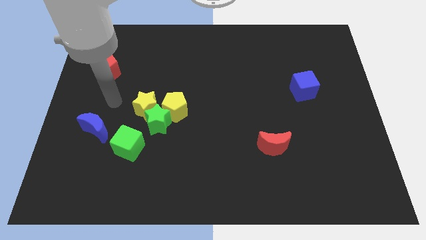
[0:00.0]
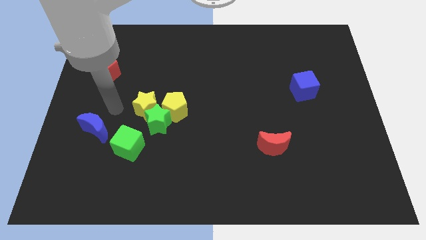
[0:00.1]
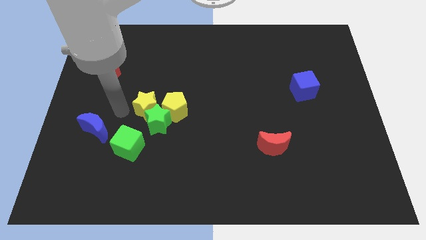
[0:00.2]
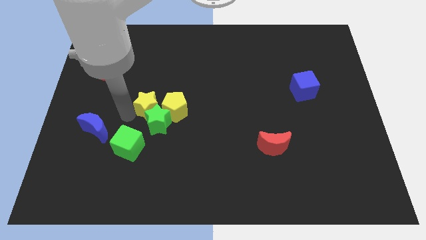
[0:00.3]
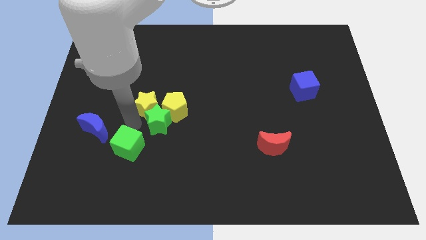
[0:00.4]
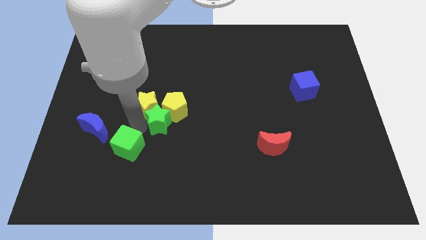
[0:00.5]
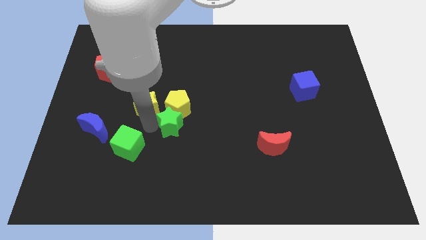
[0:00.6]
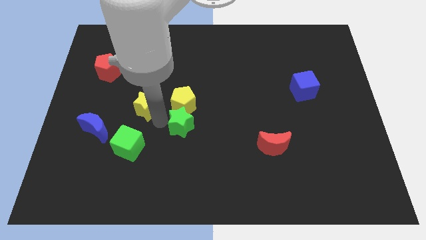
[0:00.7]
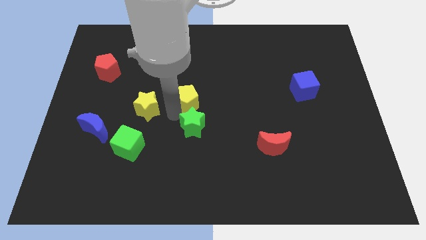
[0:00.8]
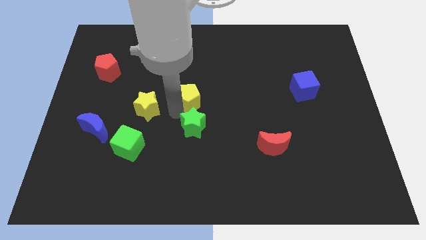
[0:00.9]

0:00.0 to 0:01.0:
pull the yellow star apart from the green star and yellow pentagon

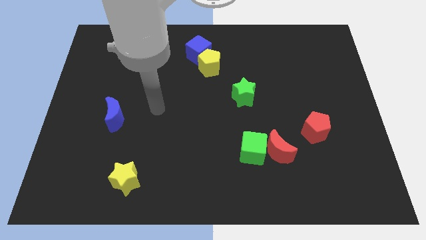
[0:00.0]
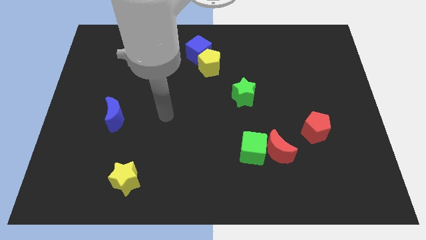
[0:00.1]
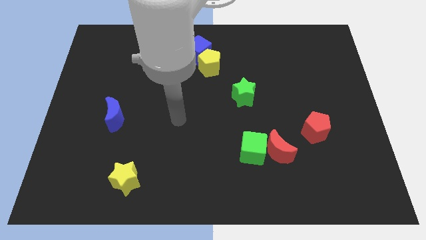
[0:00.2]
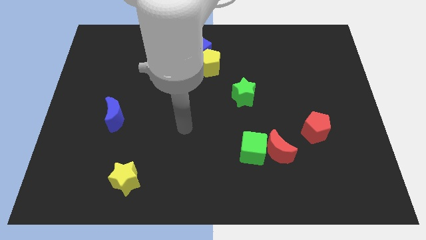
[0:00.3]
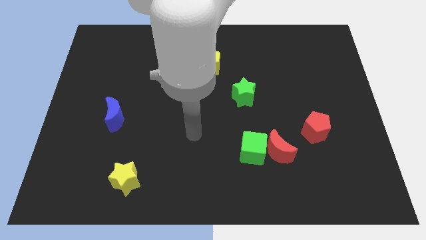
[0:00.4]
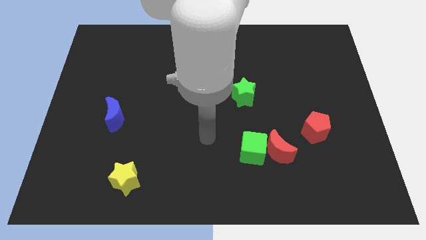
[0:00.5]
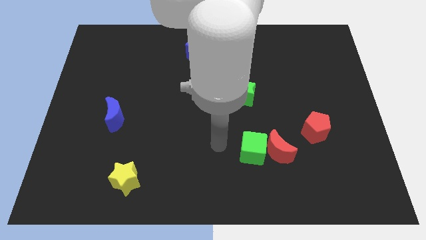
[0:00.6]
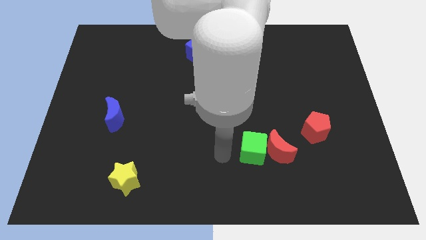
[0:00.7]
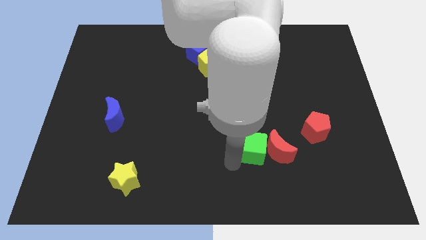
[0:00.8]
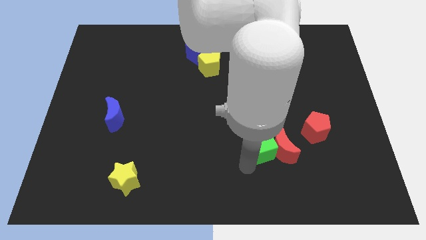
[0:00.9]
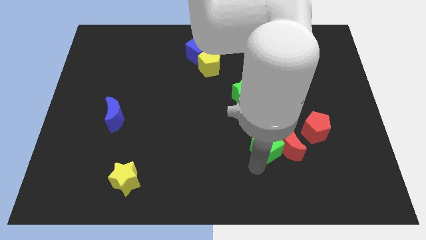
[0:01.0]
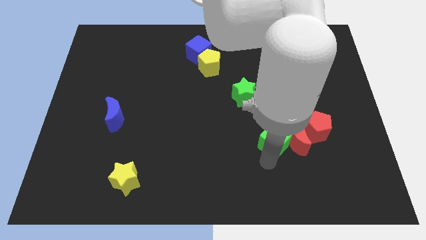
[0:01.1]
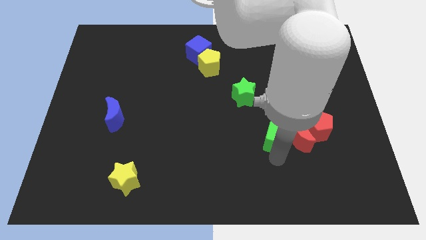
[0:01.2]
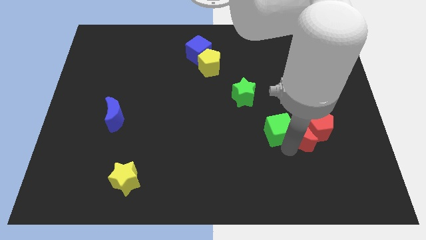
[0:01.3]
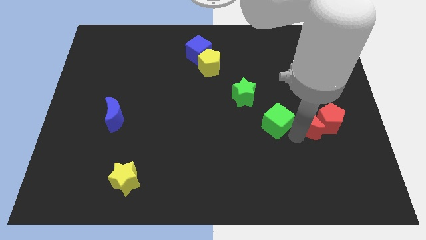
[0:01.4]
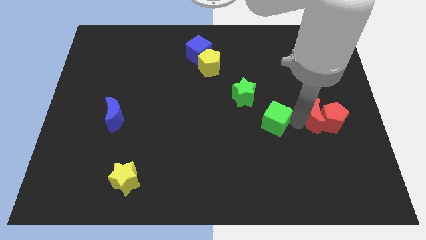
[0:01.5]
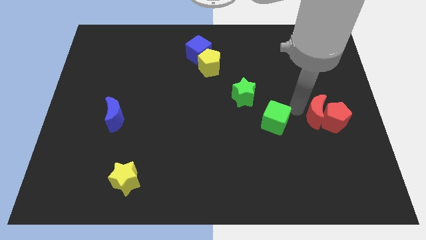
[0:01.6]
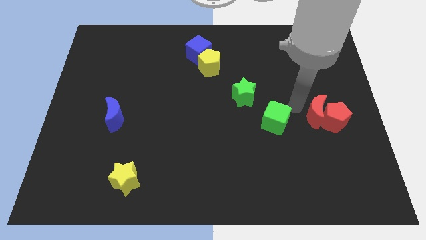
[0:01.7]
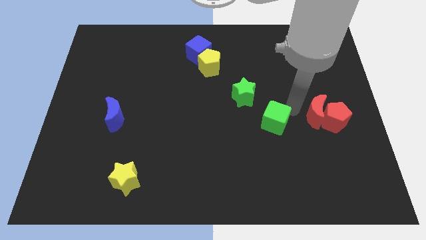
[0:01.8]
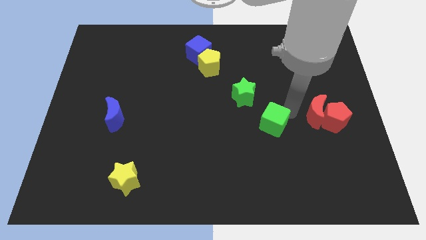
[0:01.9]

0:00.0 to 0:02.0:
pull the green cube apart from the red moon

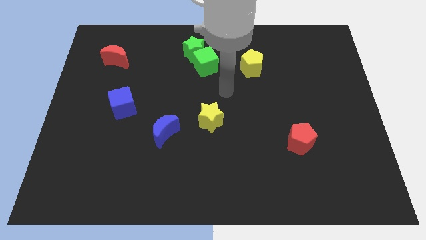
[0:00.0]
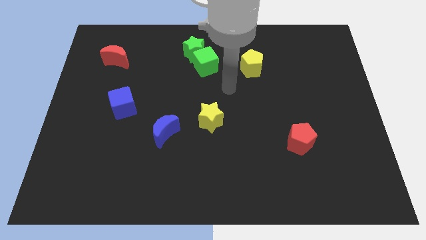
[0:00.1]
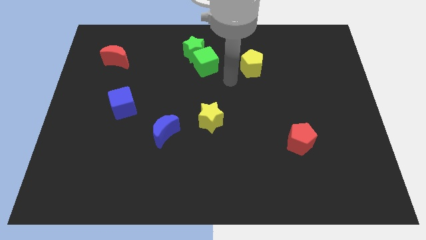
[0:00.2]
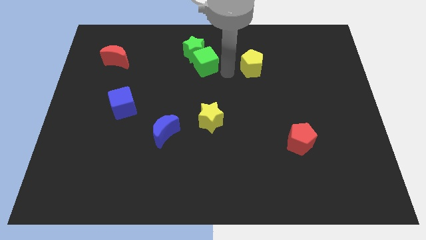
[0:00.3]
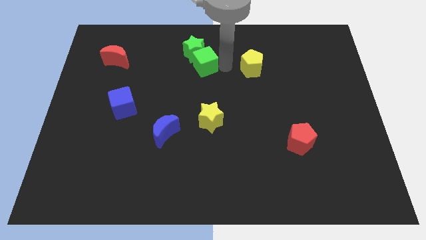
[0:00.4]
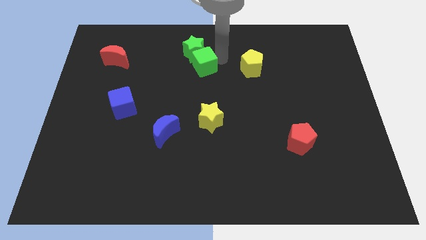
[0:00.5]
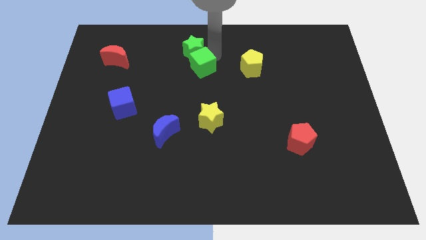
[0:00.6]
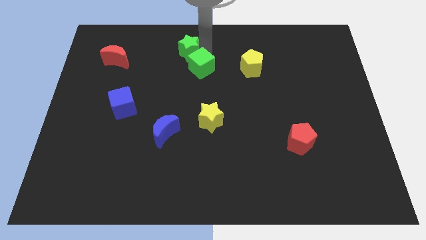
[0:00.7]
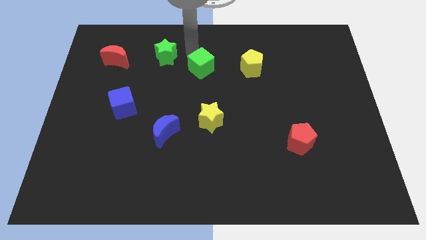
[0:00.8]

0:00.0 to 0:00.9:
pull the green cube apart from the green star

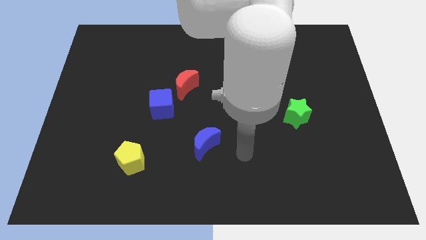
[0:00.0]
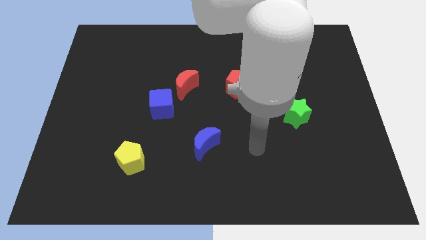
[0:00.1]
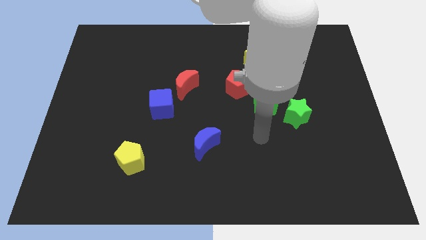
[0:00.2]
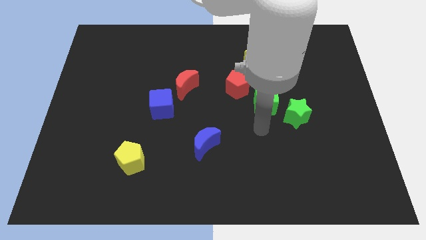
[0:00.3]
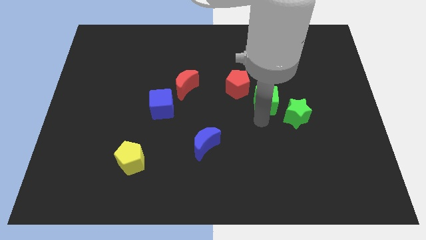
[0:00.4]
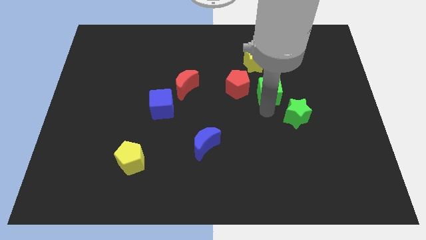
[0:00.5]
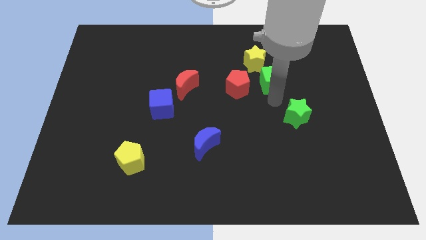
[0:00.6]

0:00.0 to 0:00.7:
move the green star away from the green cube

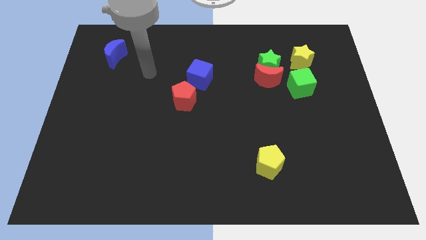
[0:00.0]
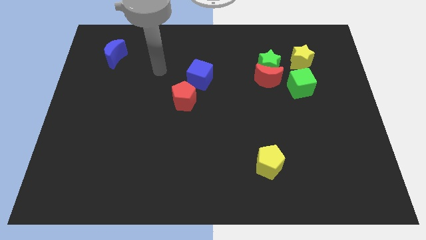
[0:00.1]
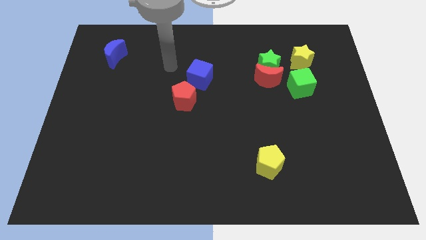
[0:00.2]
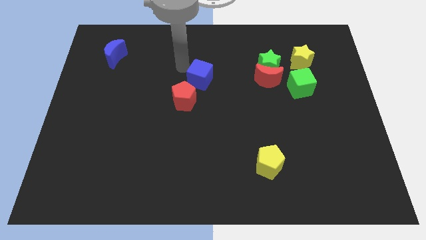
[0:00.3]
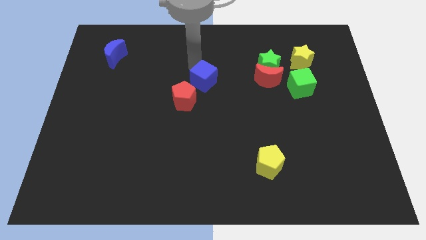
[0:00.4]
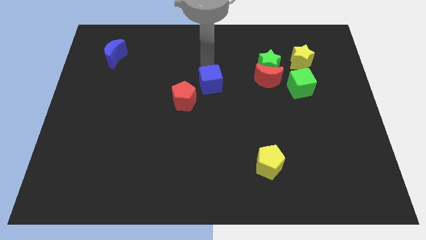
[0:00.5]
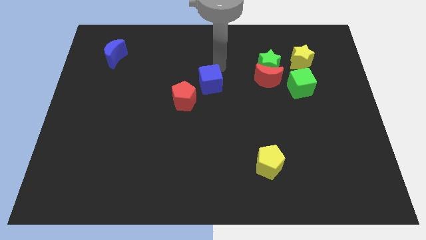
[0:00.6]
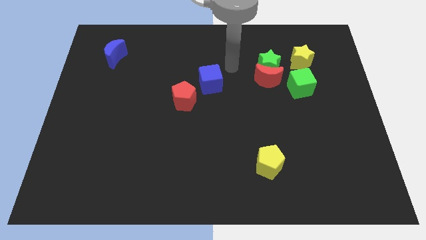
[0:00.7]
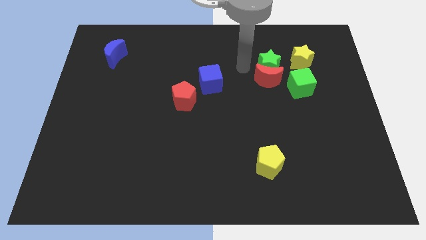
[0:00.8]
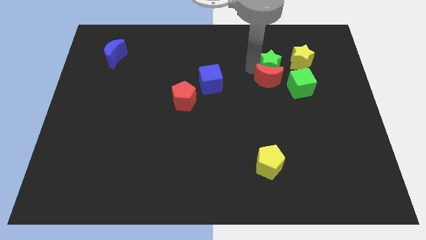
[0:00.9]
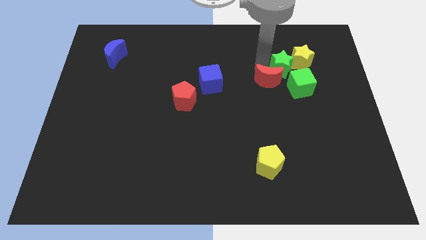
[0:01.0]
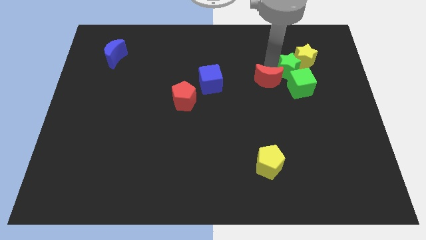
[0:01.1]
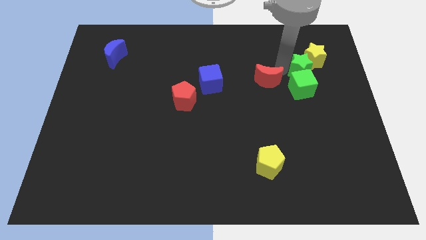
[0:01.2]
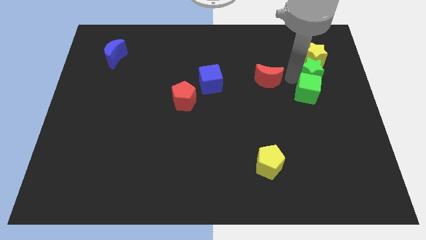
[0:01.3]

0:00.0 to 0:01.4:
pull the red moon apart from the green star and green cube

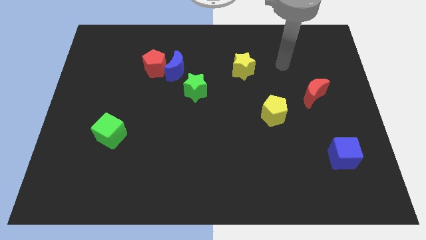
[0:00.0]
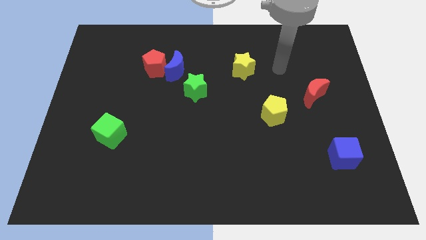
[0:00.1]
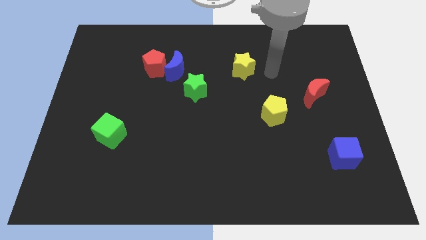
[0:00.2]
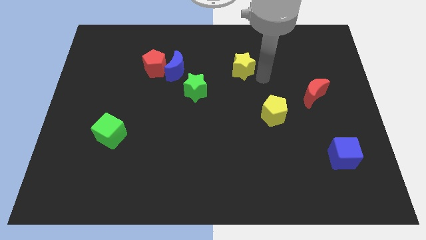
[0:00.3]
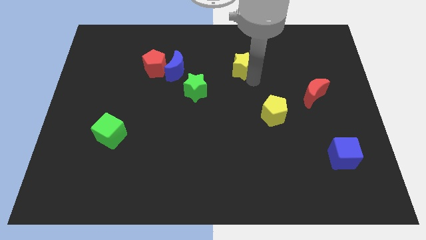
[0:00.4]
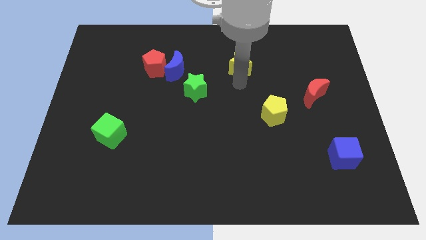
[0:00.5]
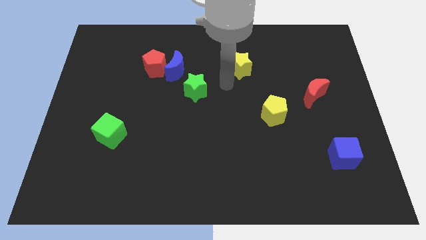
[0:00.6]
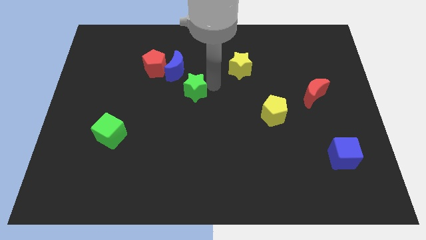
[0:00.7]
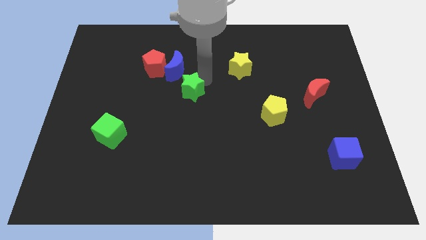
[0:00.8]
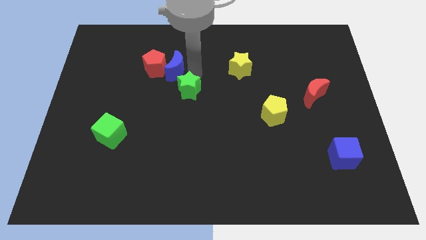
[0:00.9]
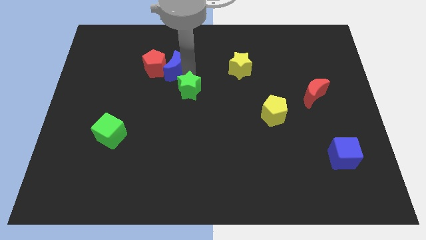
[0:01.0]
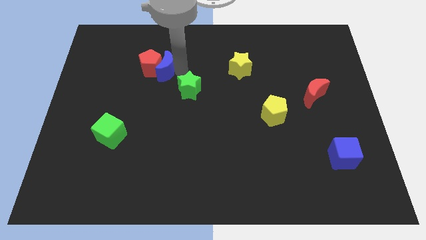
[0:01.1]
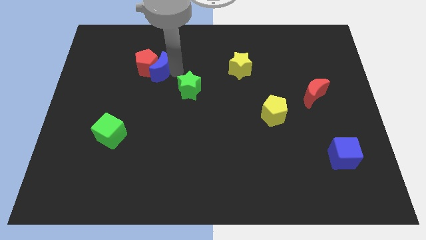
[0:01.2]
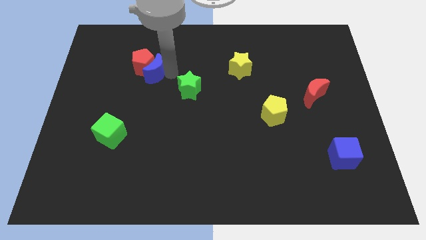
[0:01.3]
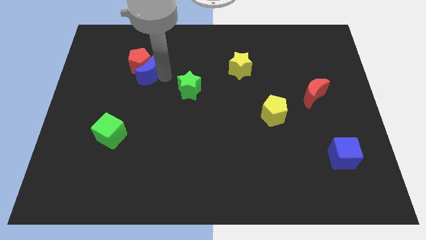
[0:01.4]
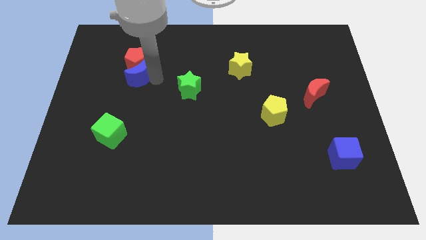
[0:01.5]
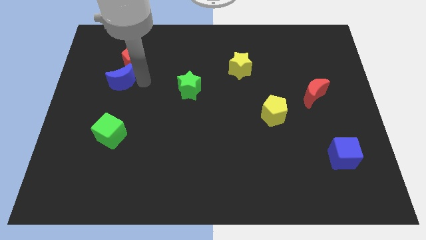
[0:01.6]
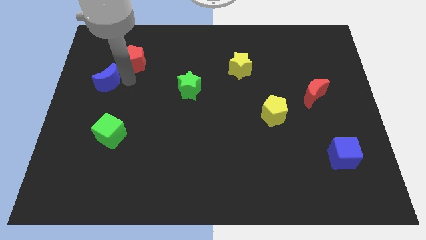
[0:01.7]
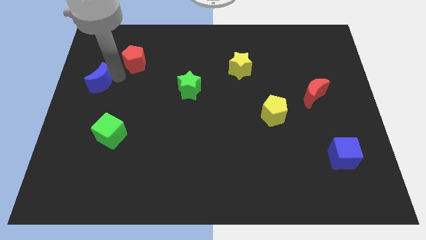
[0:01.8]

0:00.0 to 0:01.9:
separate the red pentagon from the blue moon

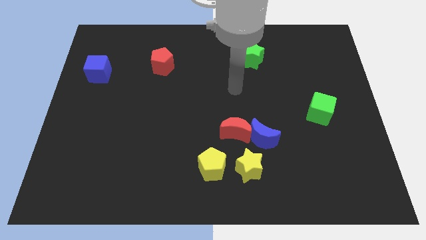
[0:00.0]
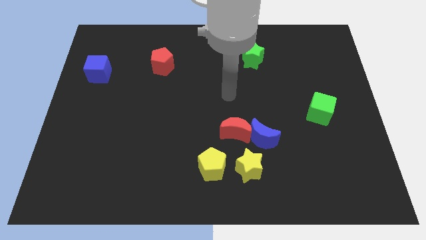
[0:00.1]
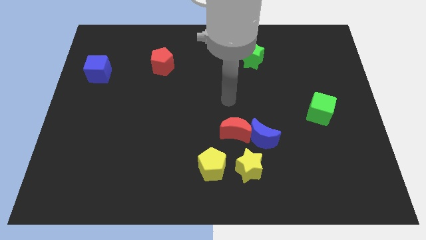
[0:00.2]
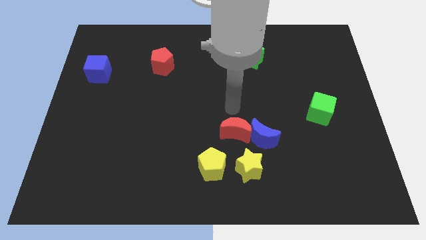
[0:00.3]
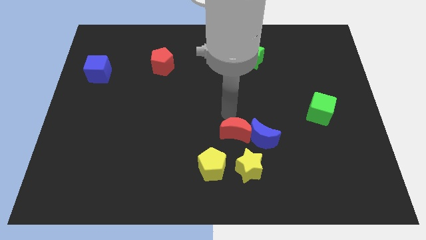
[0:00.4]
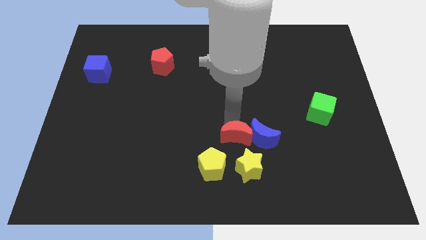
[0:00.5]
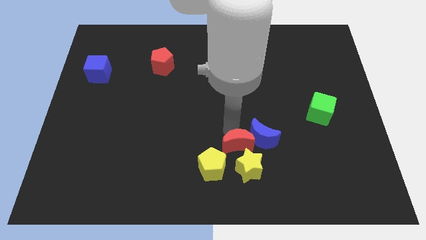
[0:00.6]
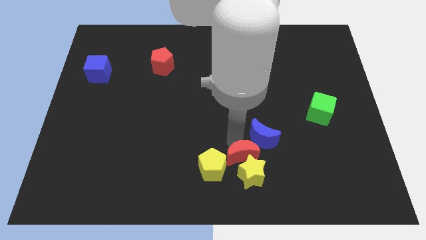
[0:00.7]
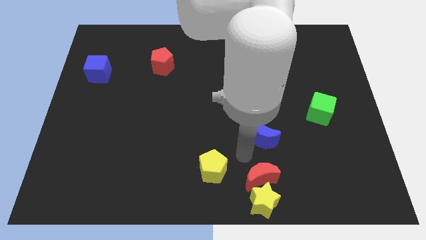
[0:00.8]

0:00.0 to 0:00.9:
separate the blue moon from the red moon and yellow star

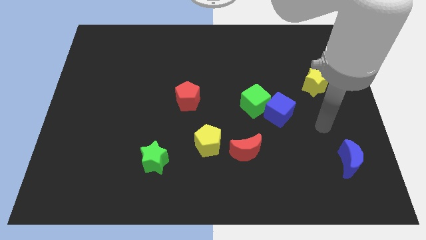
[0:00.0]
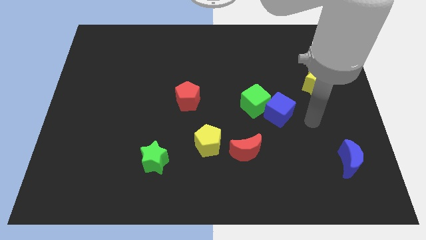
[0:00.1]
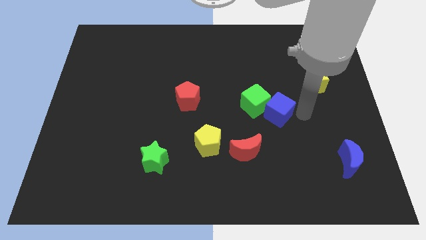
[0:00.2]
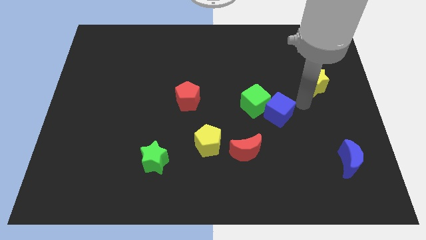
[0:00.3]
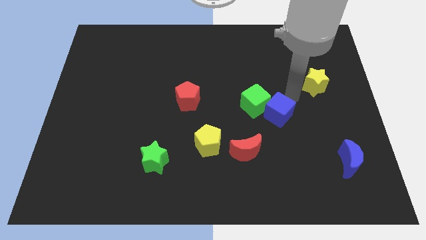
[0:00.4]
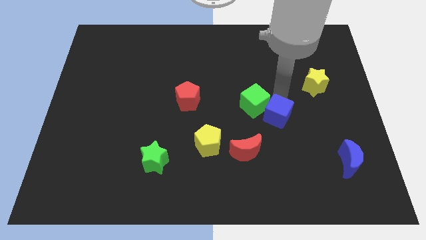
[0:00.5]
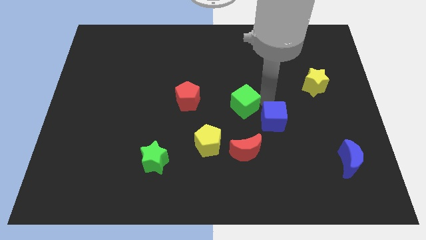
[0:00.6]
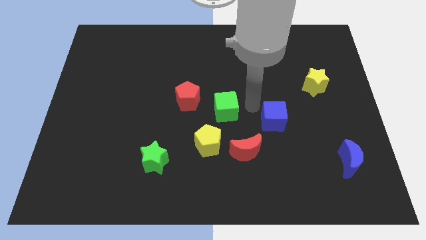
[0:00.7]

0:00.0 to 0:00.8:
move the blue cube away from the green cube
